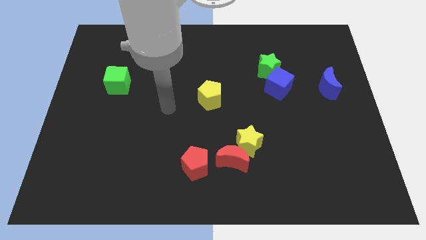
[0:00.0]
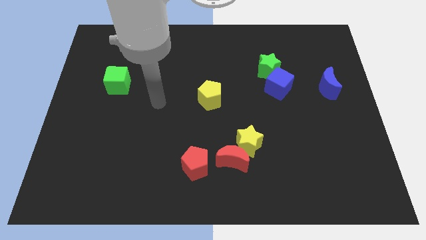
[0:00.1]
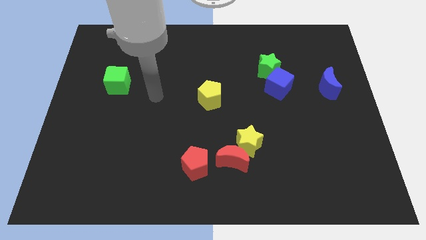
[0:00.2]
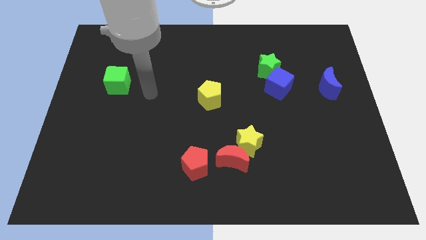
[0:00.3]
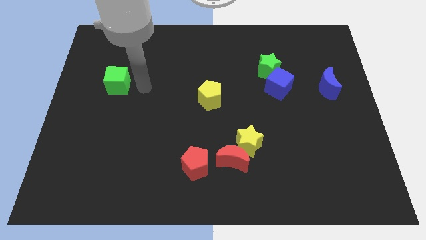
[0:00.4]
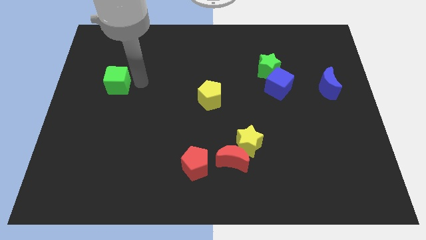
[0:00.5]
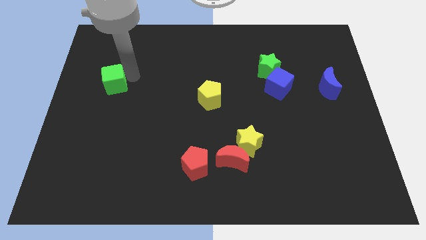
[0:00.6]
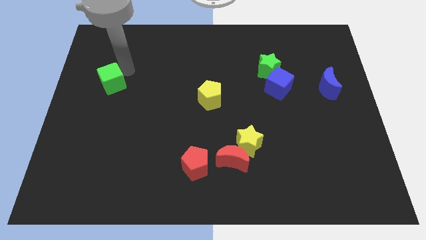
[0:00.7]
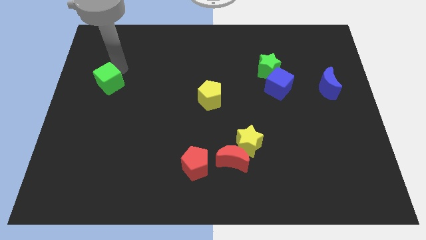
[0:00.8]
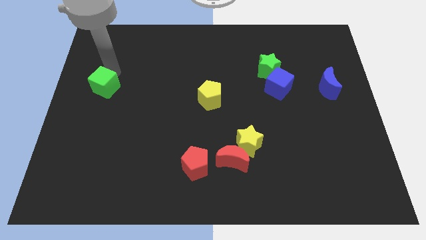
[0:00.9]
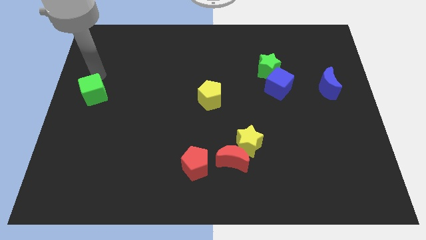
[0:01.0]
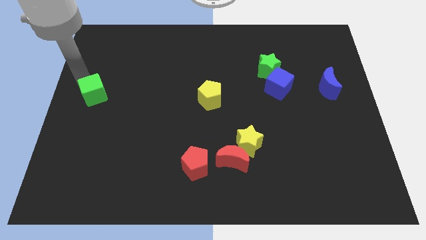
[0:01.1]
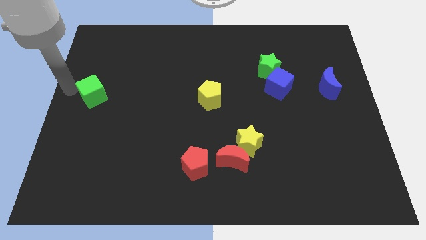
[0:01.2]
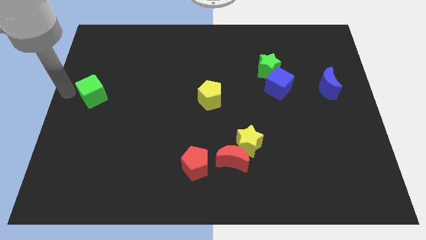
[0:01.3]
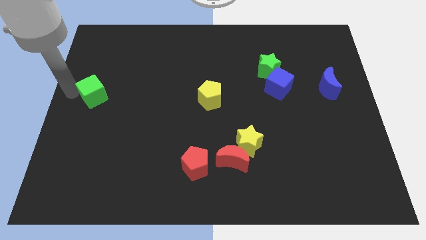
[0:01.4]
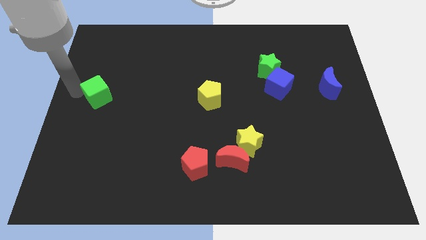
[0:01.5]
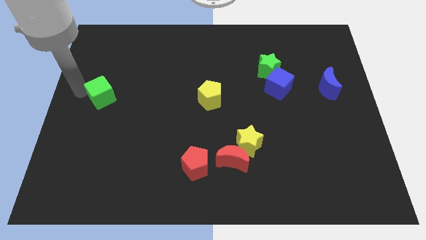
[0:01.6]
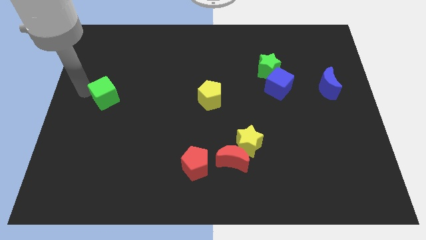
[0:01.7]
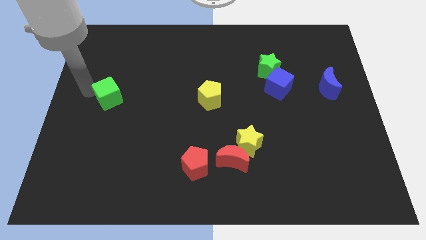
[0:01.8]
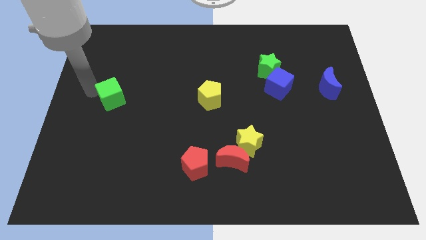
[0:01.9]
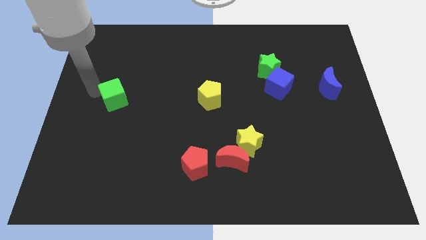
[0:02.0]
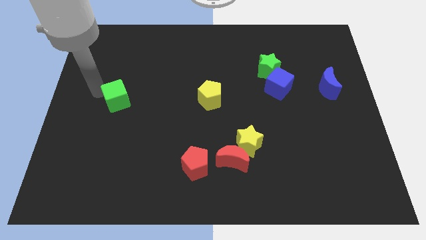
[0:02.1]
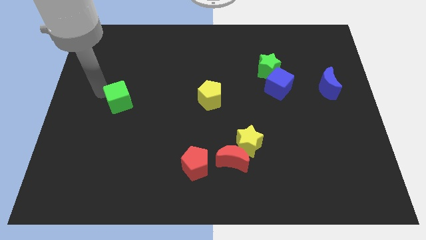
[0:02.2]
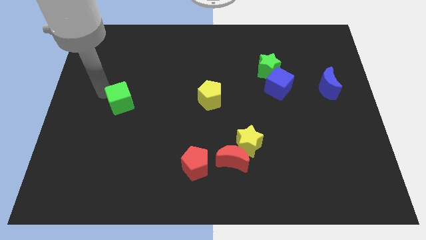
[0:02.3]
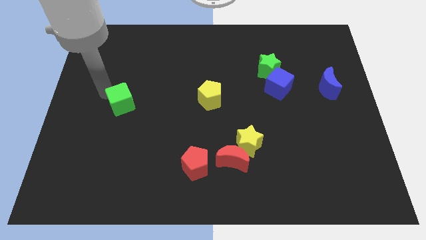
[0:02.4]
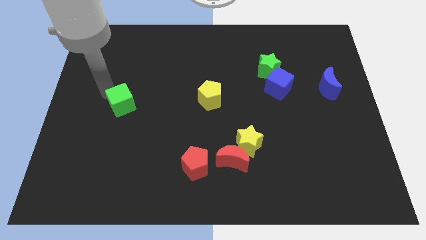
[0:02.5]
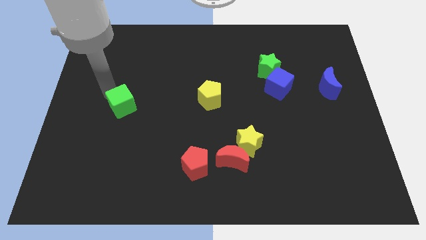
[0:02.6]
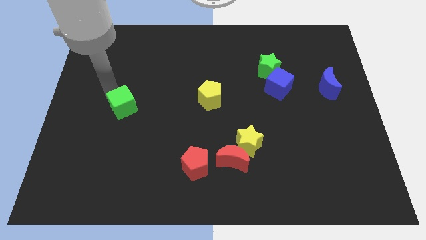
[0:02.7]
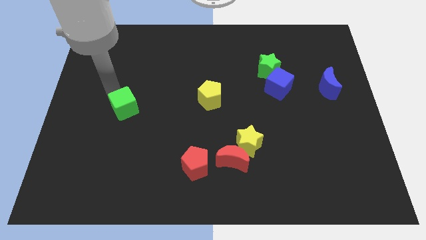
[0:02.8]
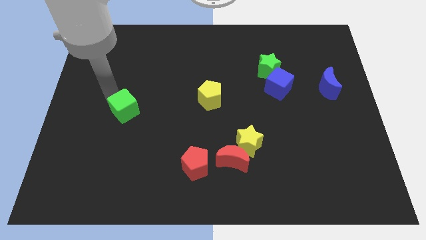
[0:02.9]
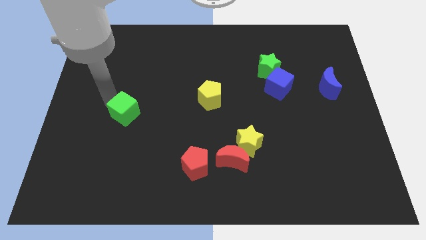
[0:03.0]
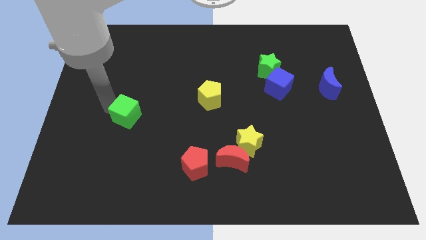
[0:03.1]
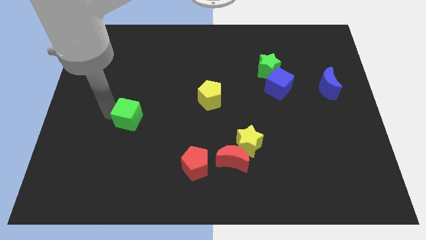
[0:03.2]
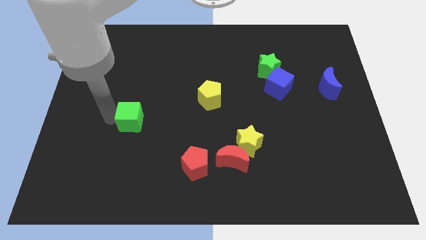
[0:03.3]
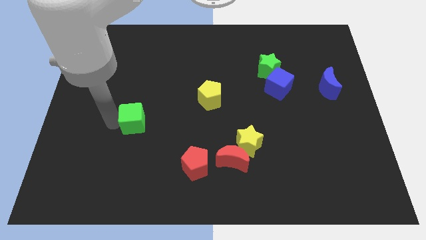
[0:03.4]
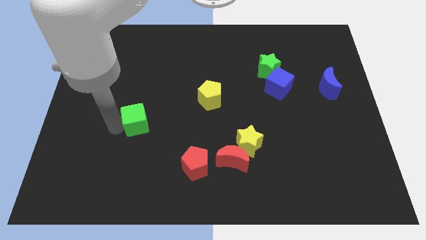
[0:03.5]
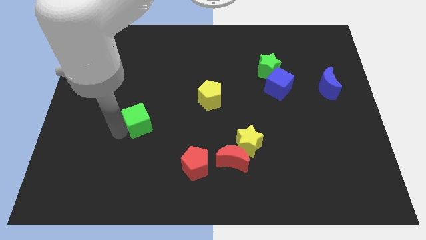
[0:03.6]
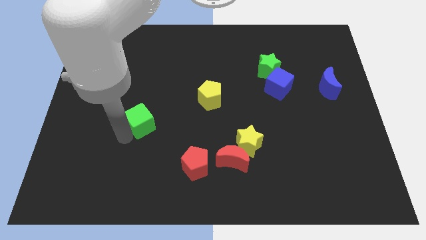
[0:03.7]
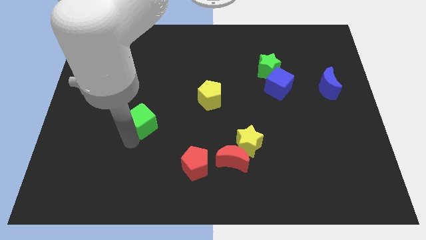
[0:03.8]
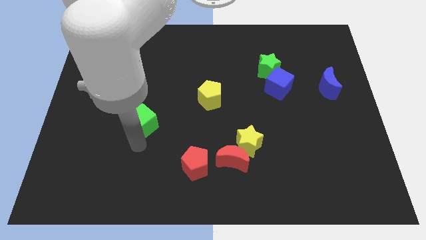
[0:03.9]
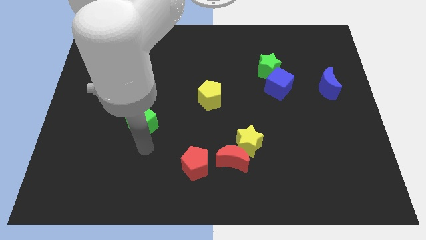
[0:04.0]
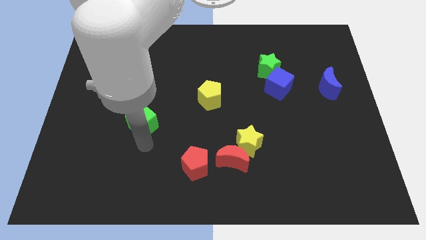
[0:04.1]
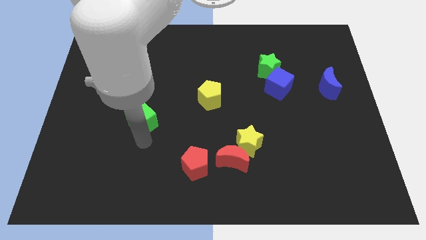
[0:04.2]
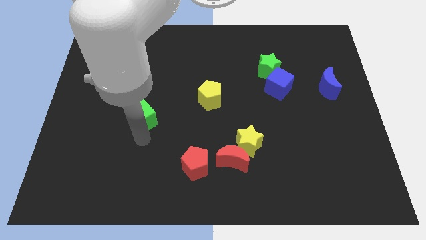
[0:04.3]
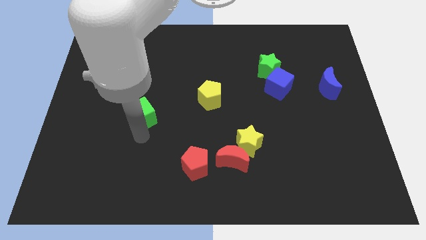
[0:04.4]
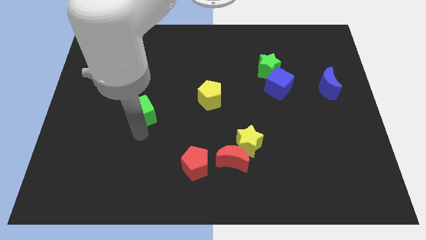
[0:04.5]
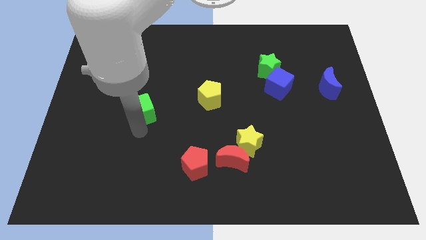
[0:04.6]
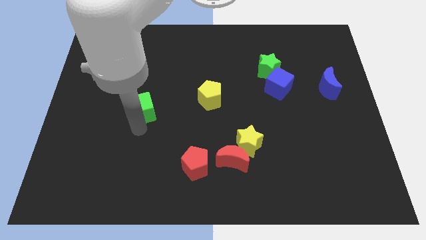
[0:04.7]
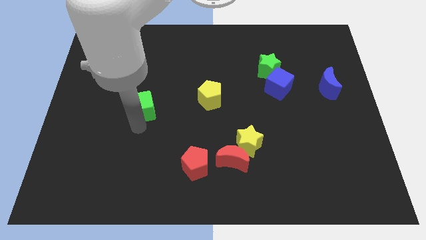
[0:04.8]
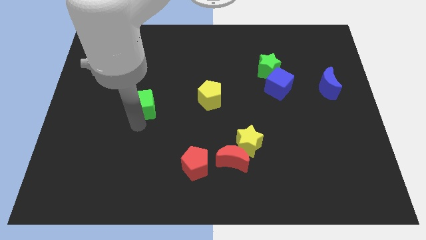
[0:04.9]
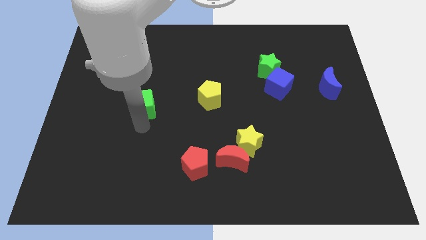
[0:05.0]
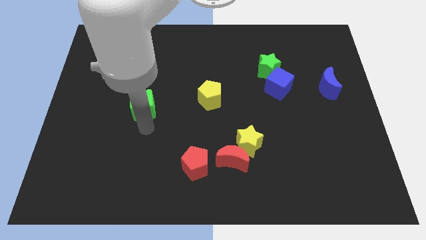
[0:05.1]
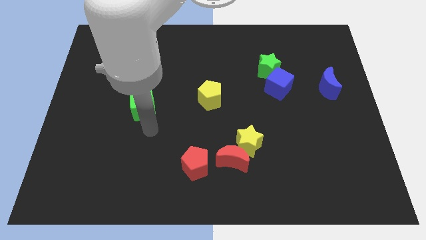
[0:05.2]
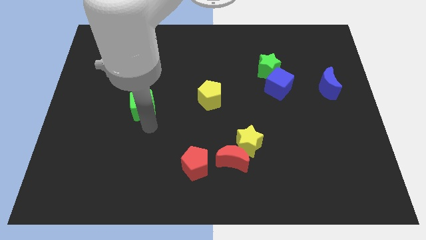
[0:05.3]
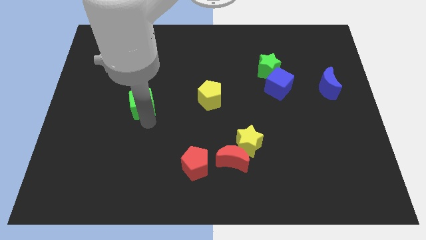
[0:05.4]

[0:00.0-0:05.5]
push the green cube just left of the yellow pentagon

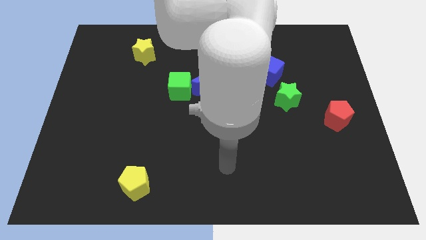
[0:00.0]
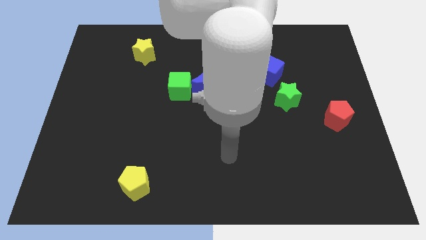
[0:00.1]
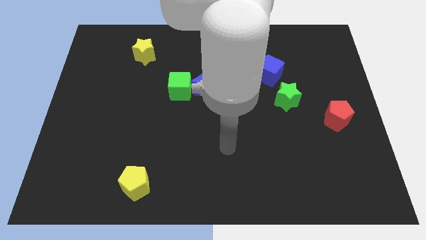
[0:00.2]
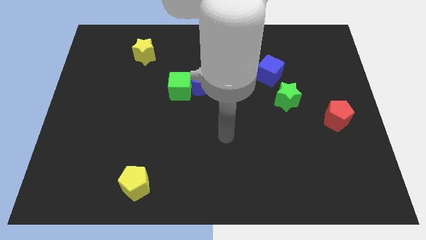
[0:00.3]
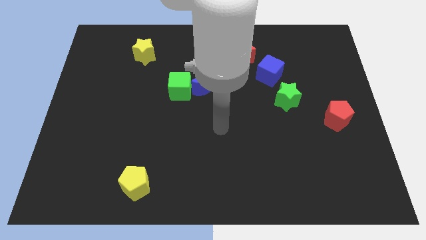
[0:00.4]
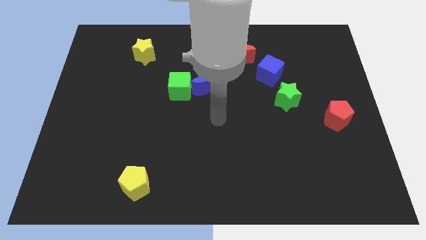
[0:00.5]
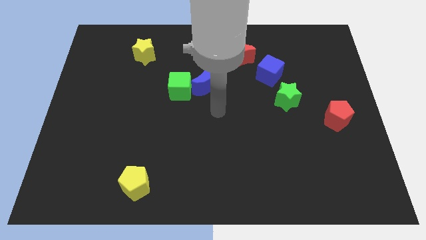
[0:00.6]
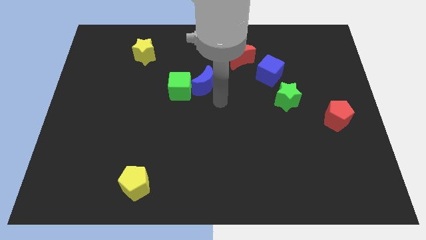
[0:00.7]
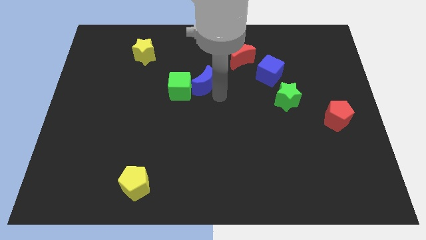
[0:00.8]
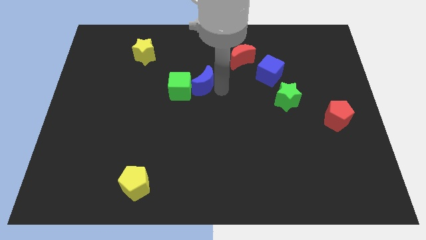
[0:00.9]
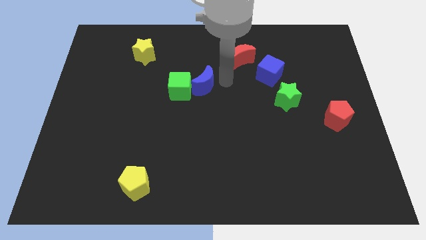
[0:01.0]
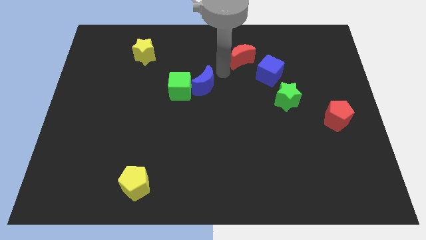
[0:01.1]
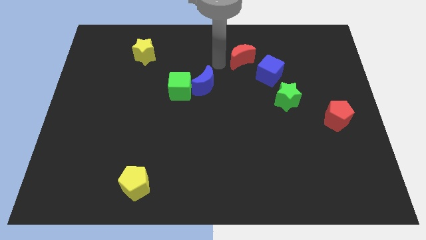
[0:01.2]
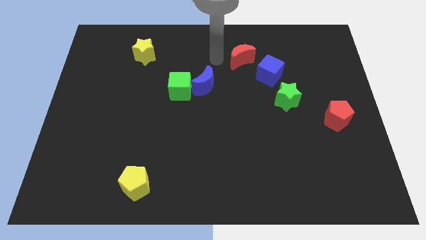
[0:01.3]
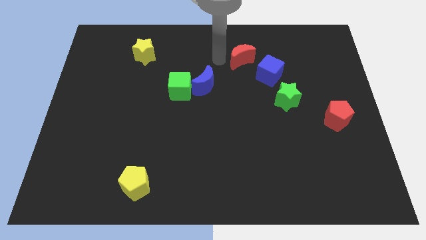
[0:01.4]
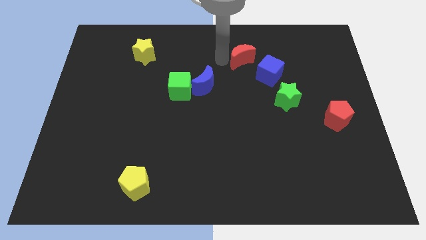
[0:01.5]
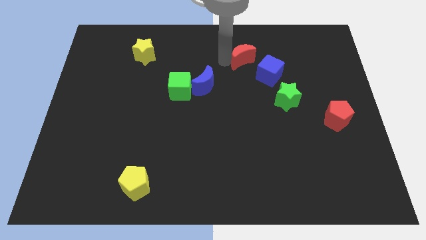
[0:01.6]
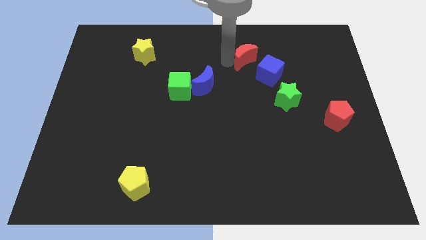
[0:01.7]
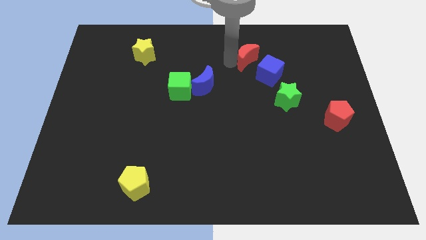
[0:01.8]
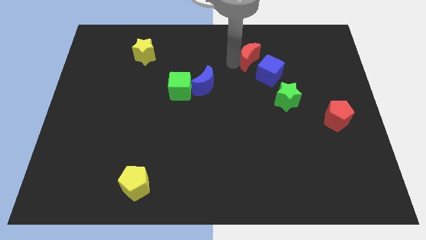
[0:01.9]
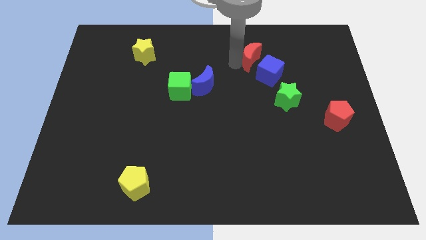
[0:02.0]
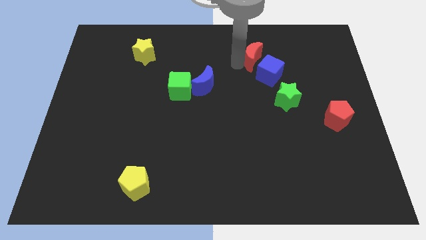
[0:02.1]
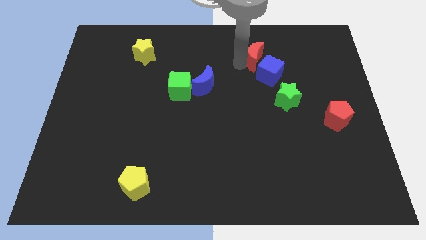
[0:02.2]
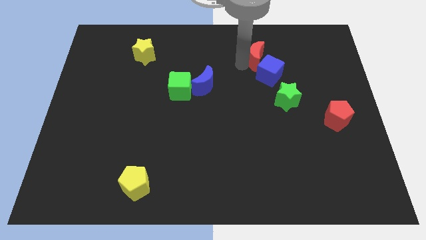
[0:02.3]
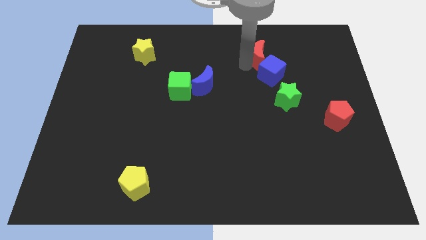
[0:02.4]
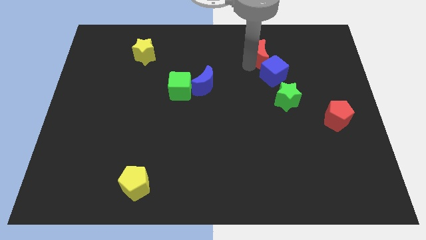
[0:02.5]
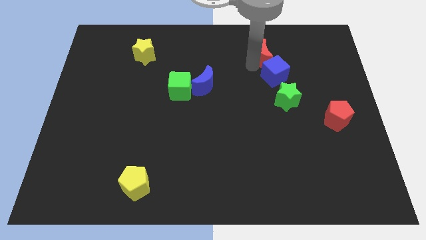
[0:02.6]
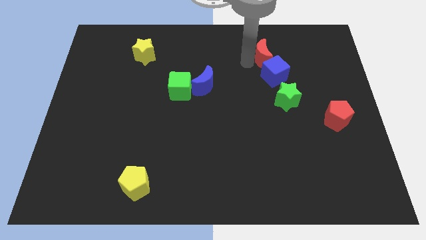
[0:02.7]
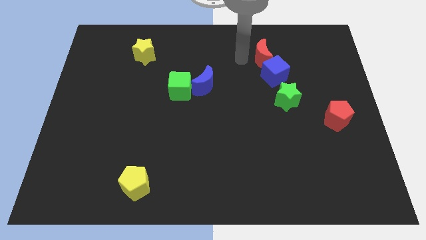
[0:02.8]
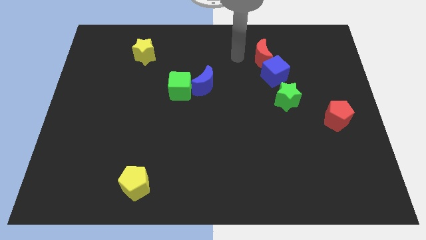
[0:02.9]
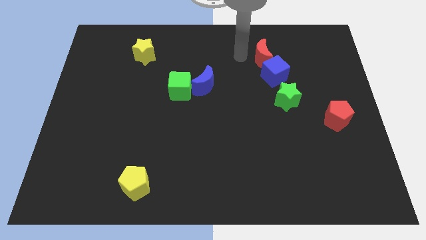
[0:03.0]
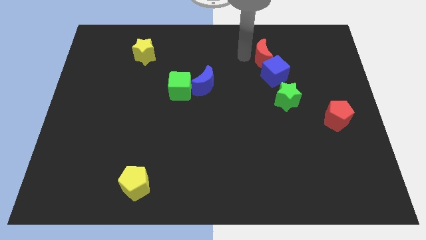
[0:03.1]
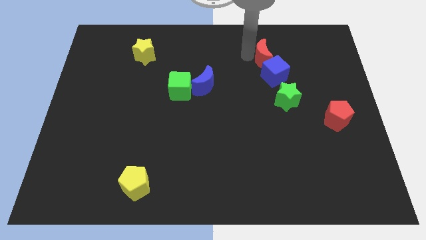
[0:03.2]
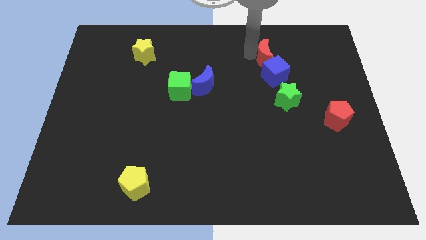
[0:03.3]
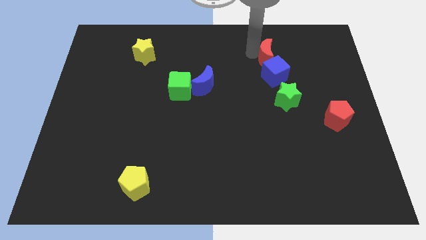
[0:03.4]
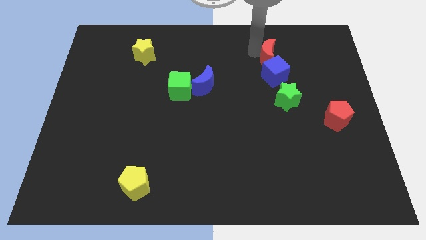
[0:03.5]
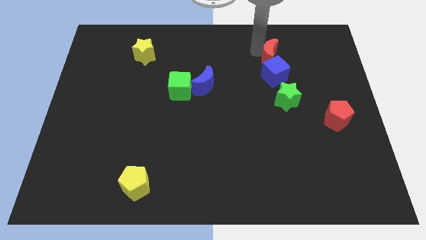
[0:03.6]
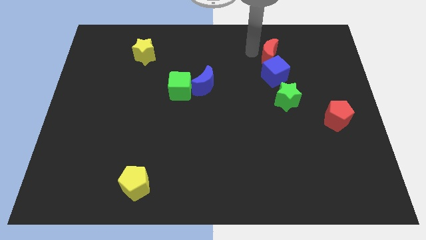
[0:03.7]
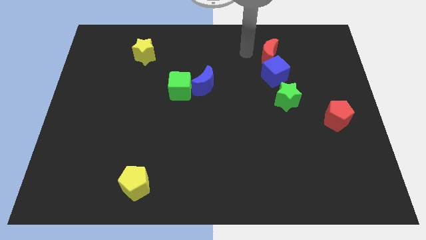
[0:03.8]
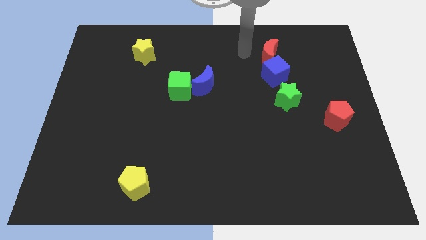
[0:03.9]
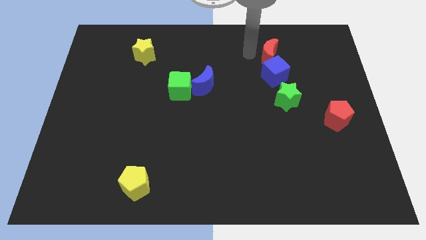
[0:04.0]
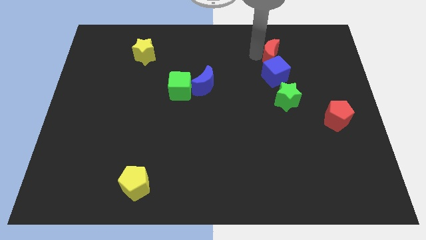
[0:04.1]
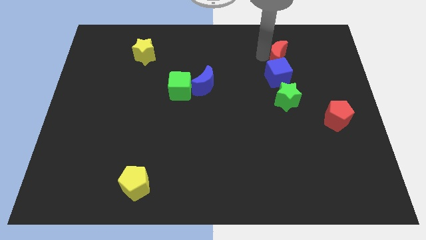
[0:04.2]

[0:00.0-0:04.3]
put the red moon diagonally up and to the right of the blue cube
